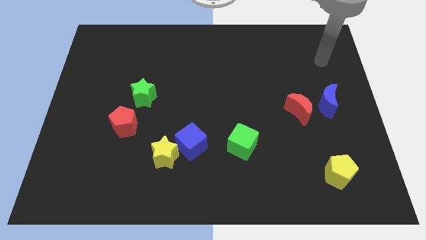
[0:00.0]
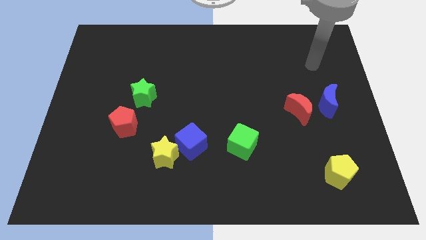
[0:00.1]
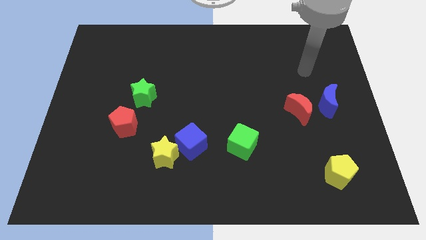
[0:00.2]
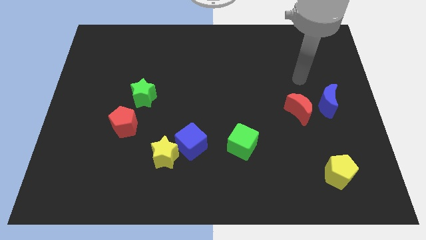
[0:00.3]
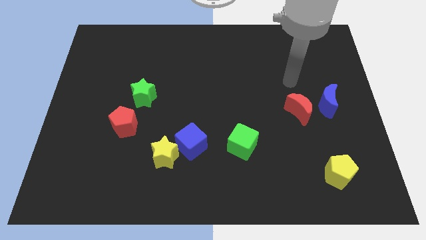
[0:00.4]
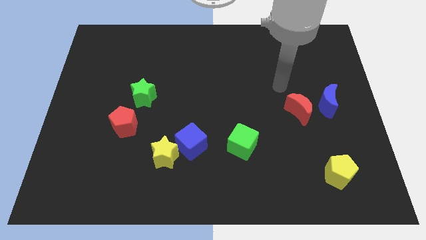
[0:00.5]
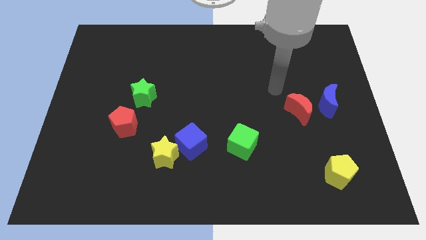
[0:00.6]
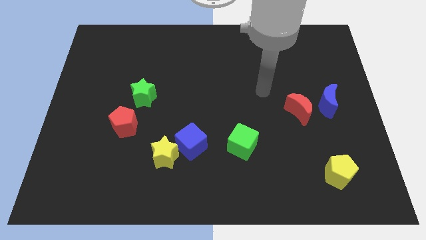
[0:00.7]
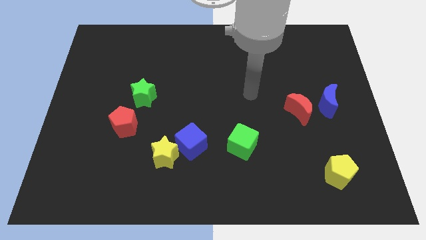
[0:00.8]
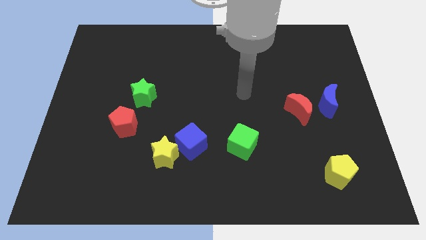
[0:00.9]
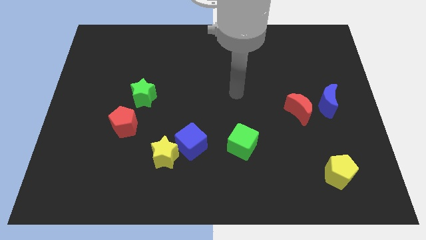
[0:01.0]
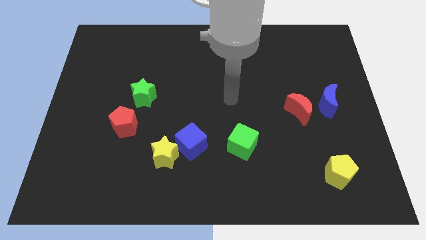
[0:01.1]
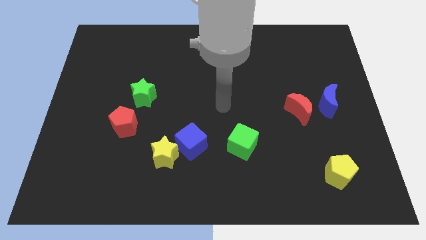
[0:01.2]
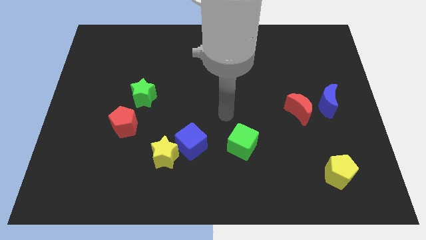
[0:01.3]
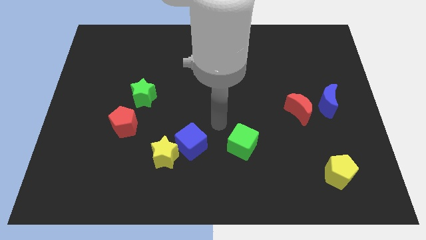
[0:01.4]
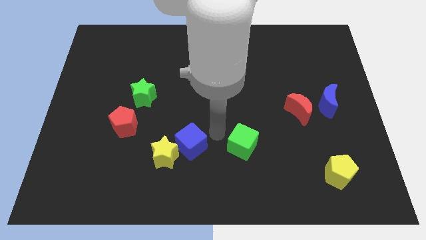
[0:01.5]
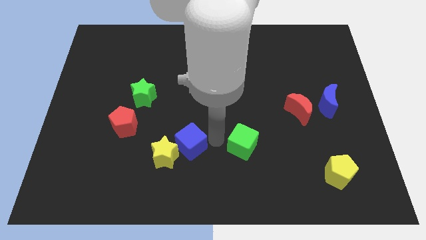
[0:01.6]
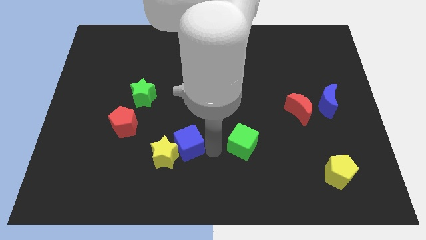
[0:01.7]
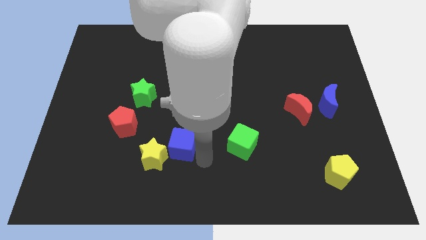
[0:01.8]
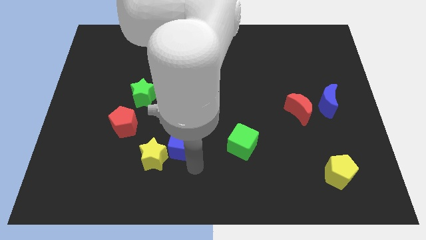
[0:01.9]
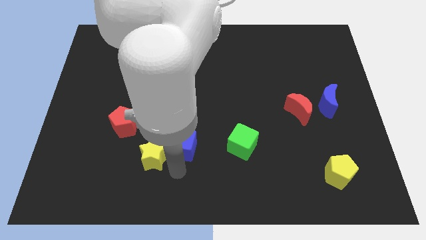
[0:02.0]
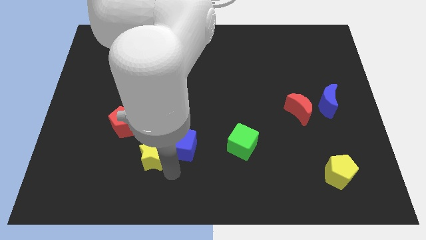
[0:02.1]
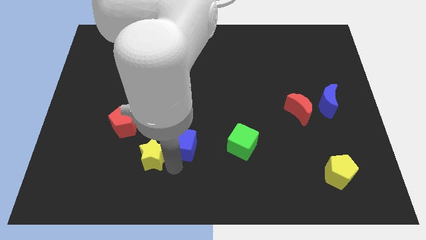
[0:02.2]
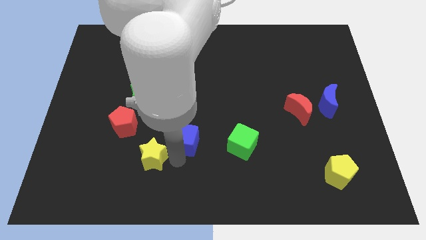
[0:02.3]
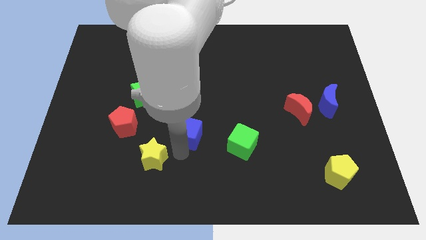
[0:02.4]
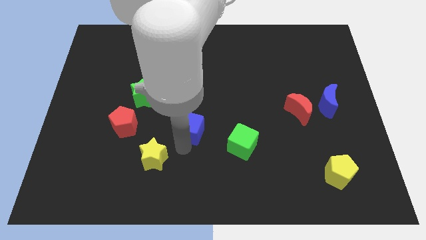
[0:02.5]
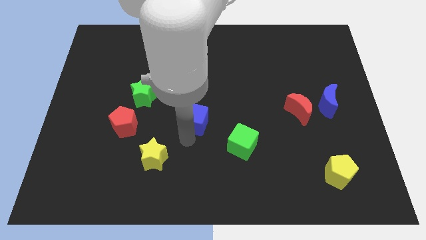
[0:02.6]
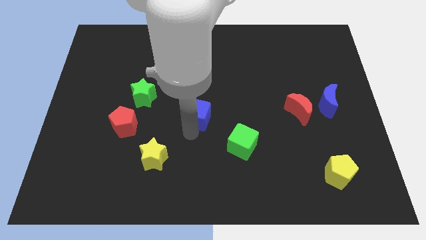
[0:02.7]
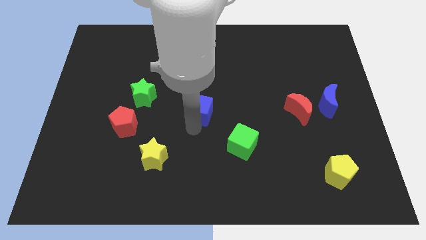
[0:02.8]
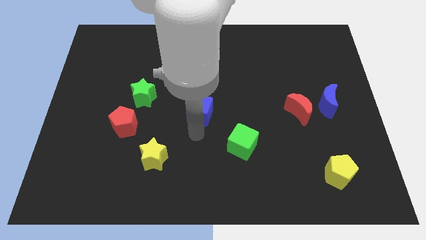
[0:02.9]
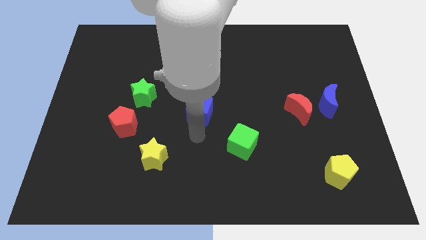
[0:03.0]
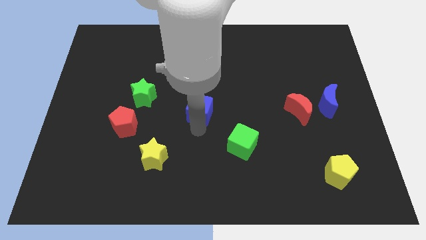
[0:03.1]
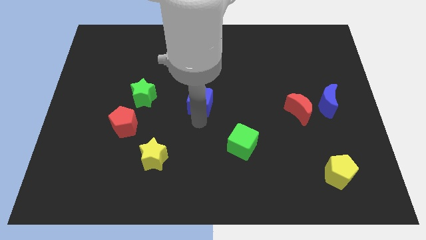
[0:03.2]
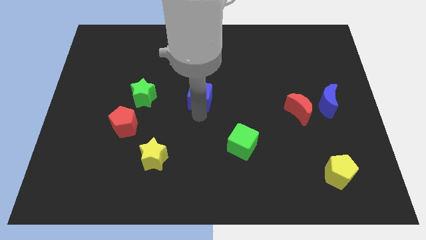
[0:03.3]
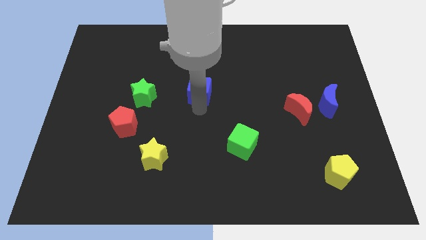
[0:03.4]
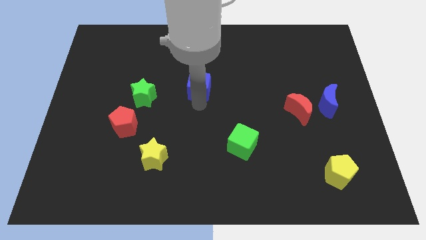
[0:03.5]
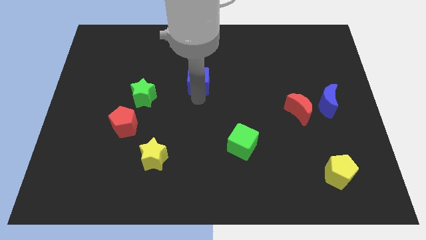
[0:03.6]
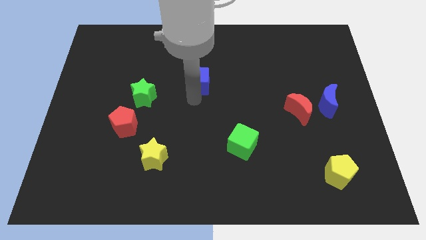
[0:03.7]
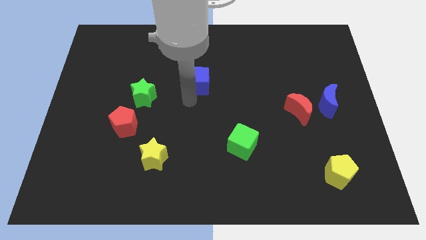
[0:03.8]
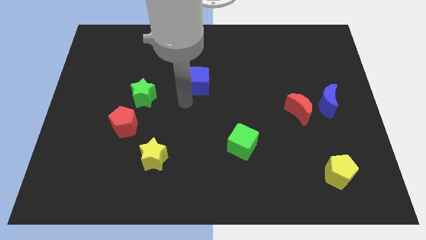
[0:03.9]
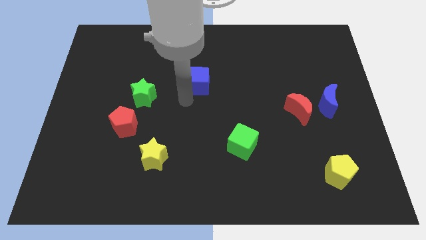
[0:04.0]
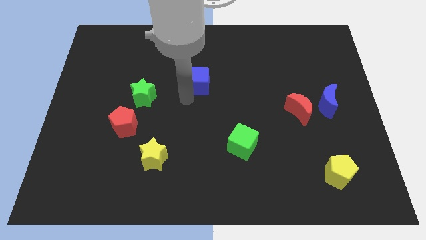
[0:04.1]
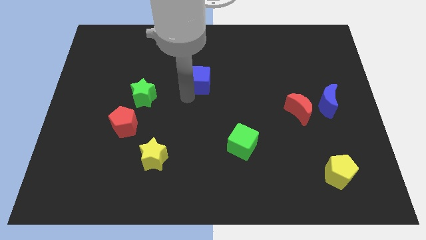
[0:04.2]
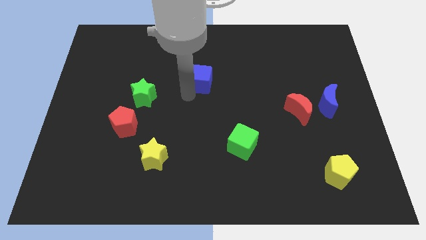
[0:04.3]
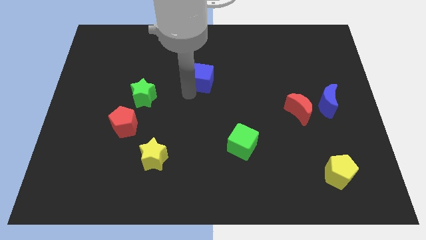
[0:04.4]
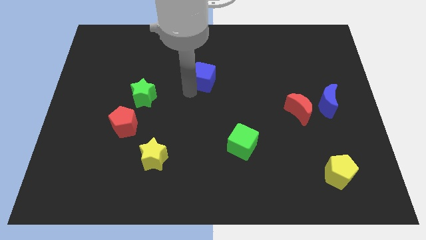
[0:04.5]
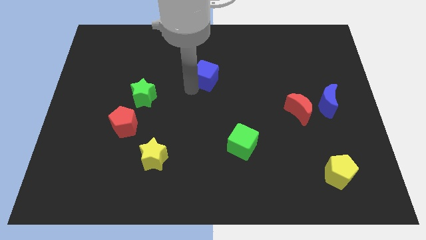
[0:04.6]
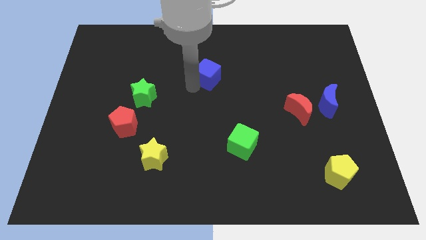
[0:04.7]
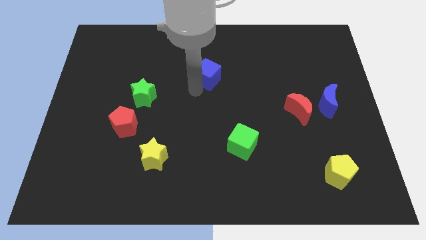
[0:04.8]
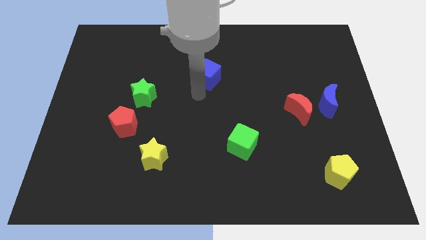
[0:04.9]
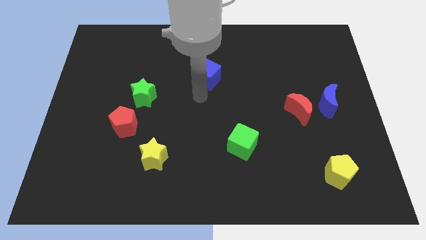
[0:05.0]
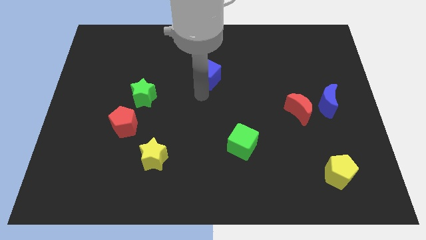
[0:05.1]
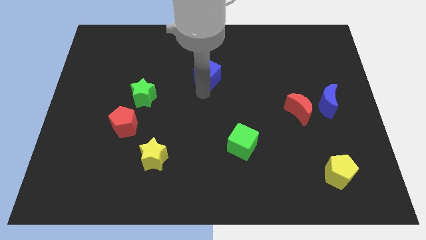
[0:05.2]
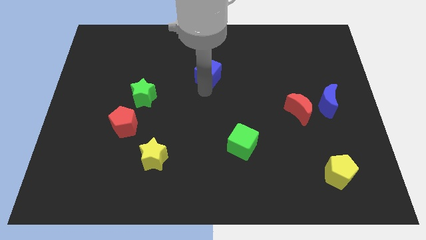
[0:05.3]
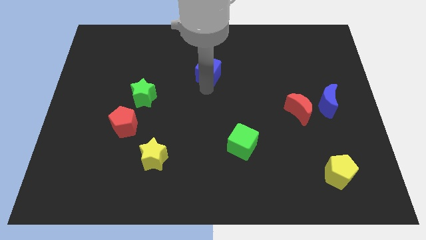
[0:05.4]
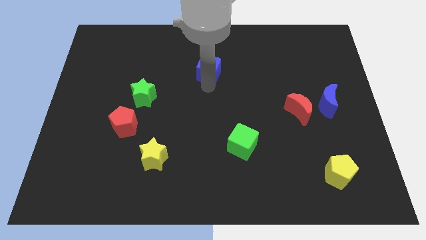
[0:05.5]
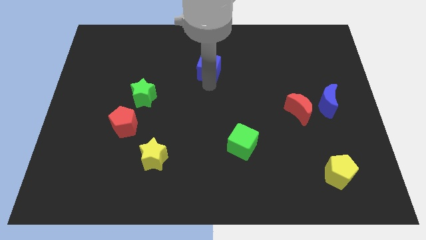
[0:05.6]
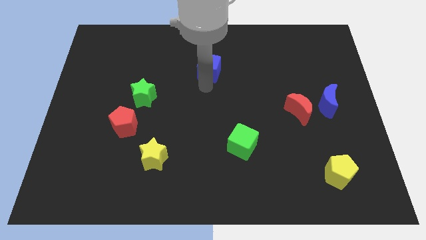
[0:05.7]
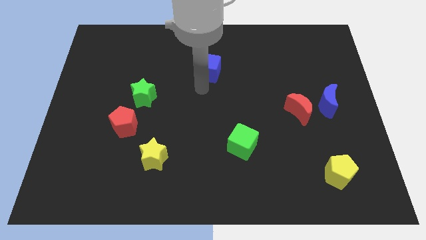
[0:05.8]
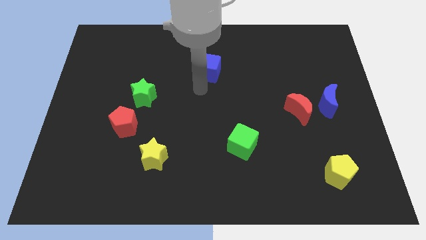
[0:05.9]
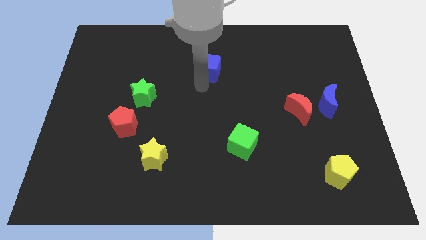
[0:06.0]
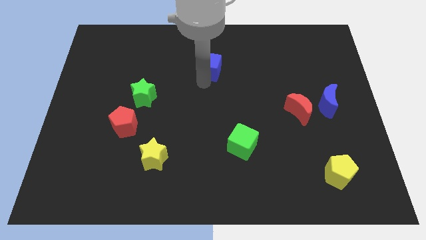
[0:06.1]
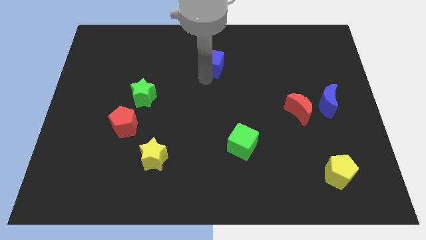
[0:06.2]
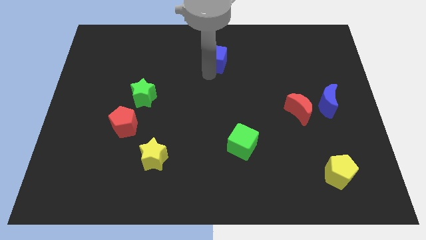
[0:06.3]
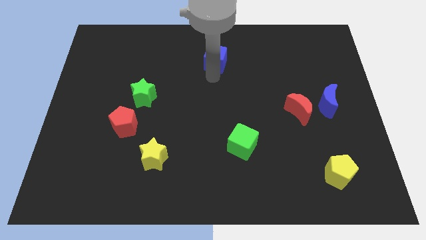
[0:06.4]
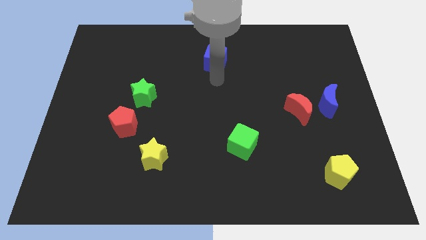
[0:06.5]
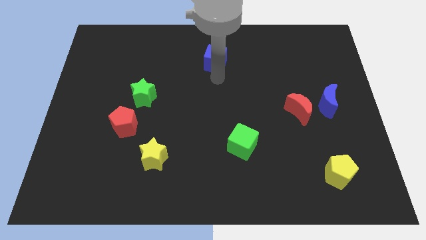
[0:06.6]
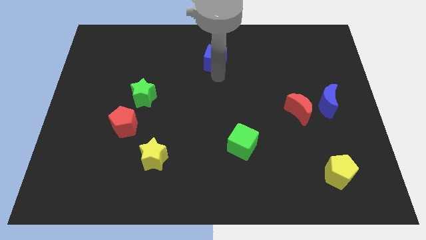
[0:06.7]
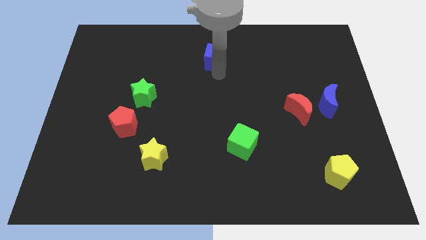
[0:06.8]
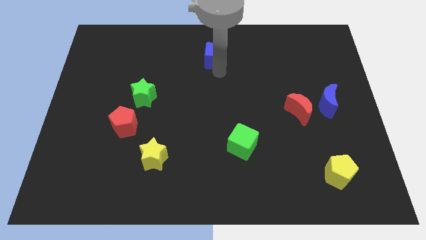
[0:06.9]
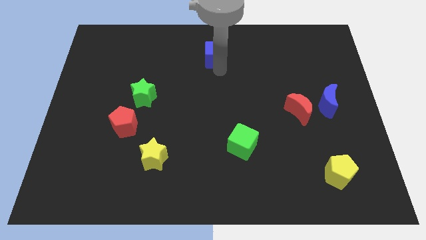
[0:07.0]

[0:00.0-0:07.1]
put the blue cube to the top side

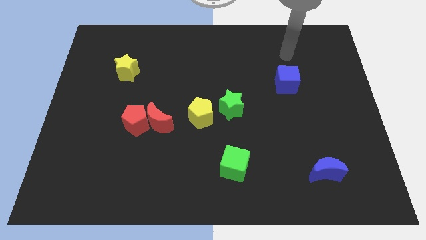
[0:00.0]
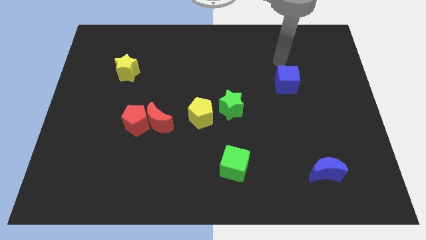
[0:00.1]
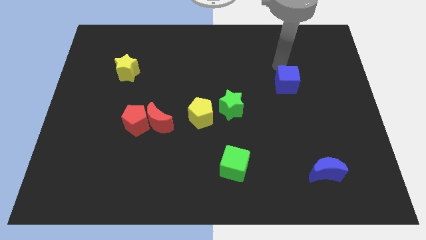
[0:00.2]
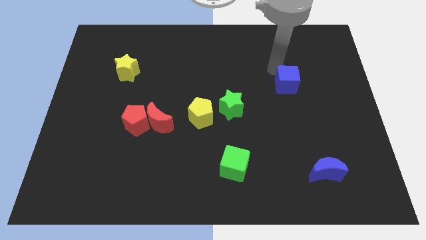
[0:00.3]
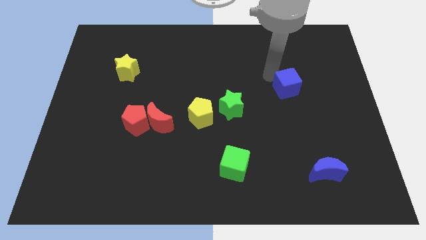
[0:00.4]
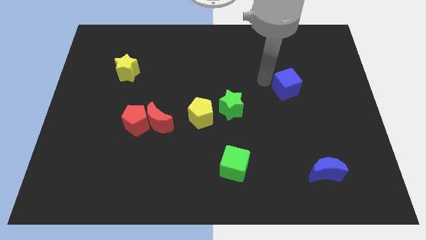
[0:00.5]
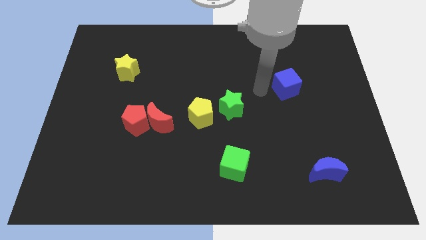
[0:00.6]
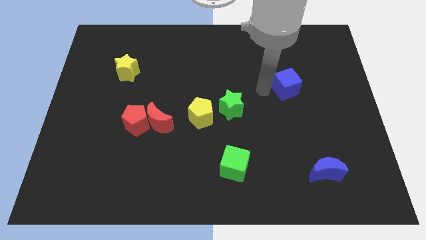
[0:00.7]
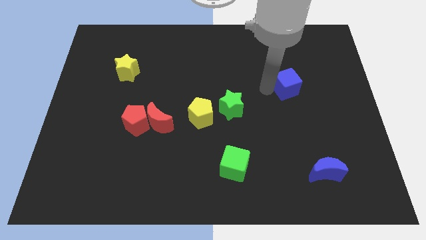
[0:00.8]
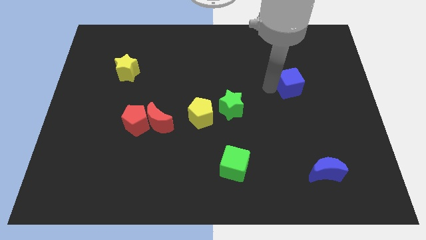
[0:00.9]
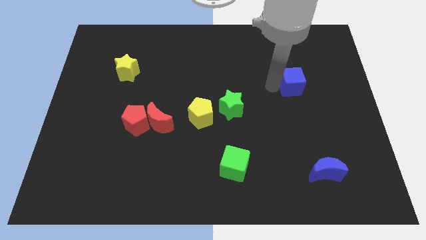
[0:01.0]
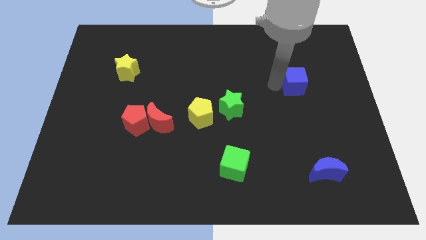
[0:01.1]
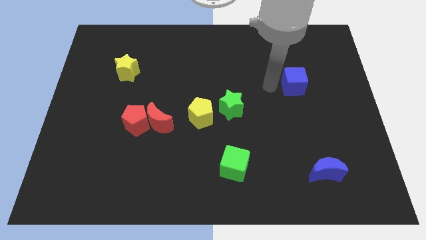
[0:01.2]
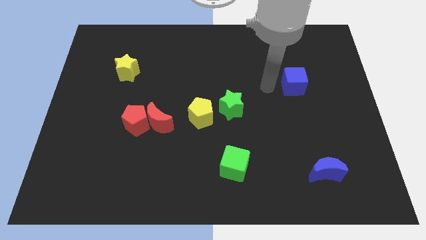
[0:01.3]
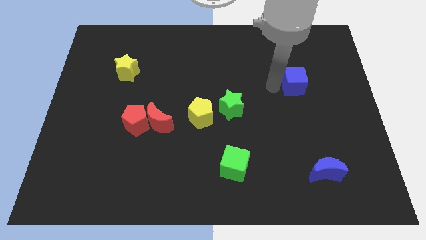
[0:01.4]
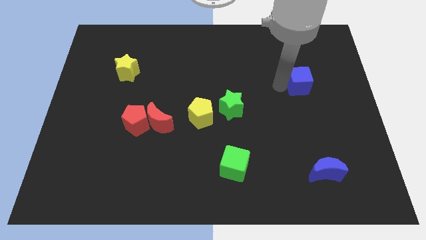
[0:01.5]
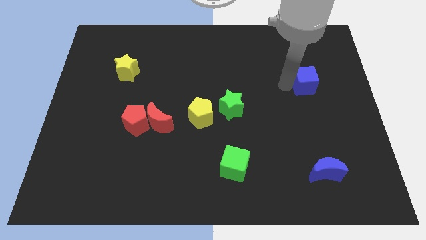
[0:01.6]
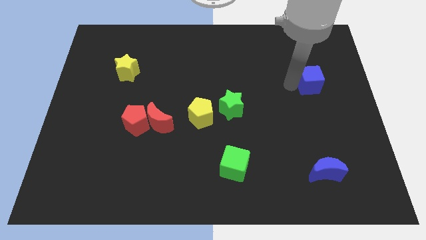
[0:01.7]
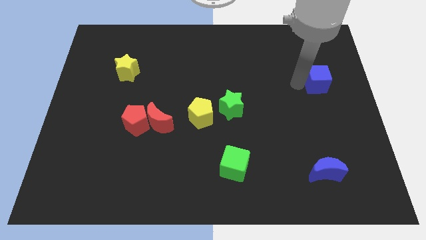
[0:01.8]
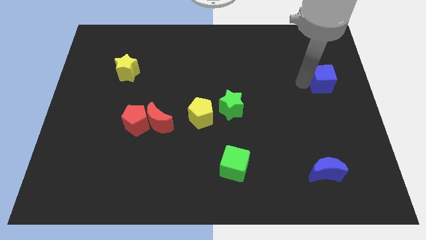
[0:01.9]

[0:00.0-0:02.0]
put the blue cube to the center right
